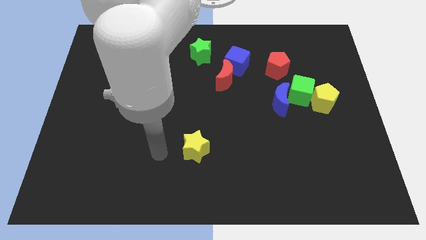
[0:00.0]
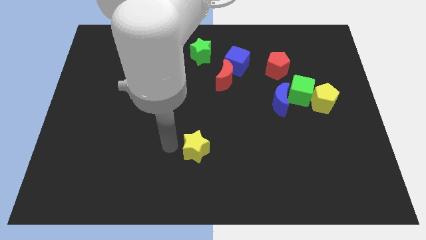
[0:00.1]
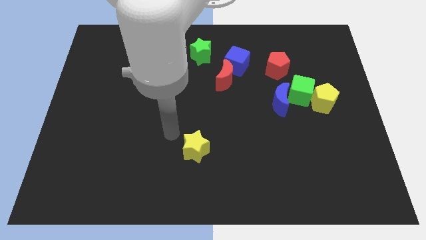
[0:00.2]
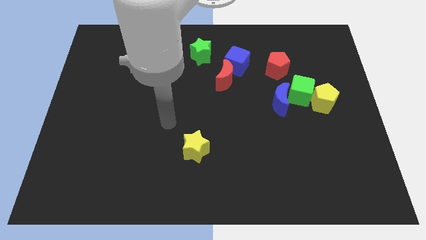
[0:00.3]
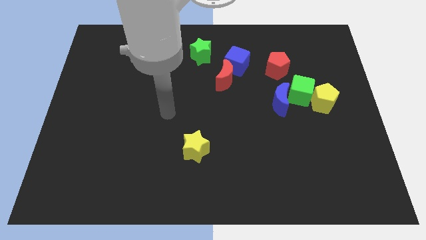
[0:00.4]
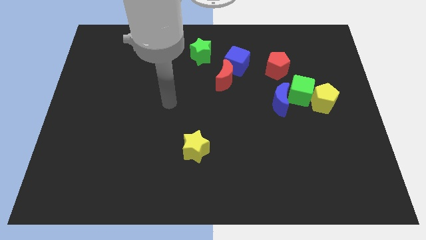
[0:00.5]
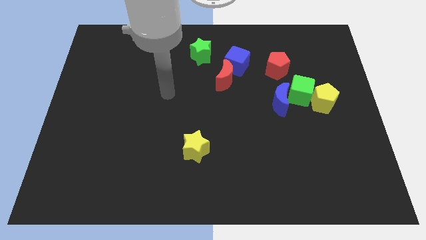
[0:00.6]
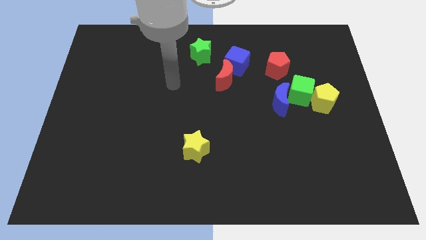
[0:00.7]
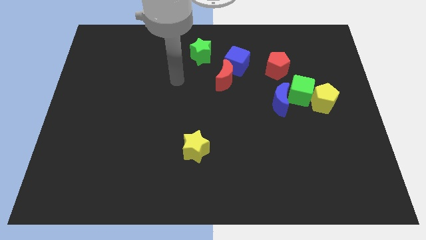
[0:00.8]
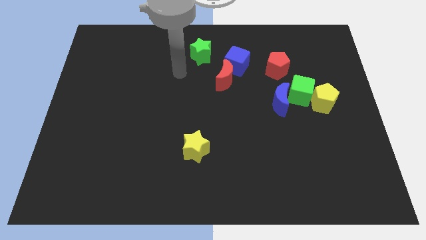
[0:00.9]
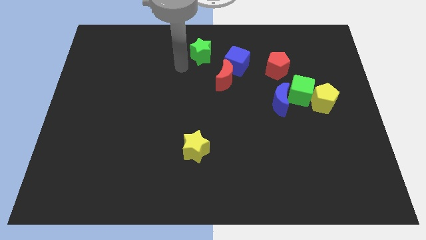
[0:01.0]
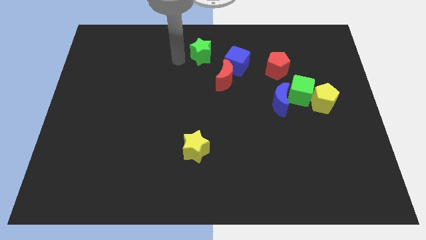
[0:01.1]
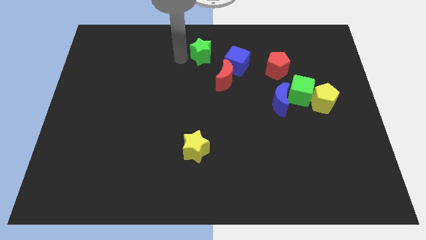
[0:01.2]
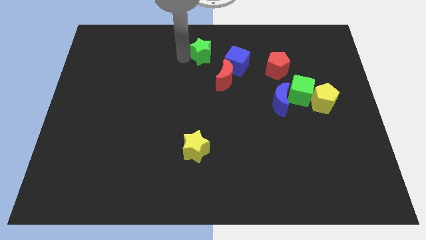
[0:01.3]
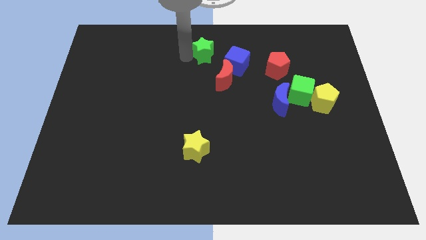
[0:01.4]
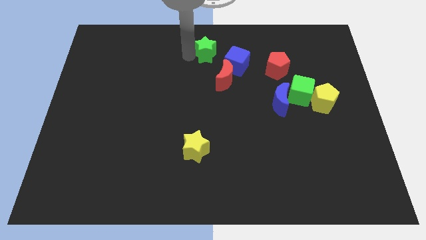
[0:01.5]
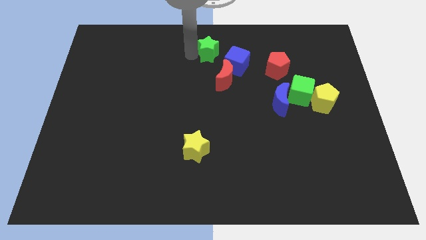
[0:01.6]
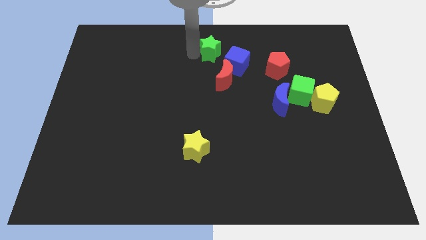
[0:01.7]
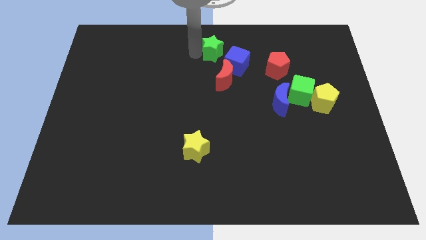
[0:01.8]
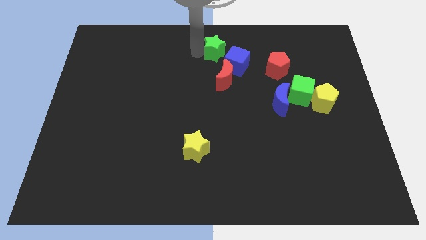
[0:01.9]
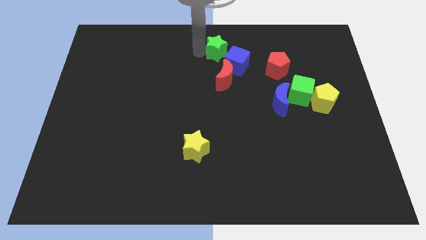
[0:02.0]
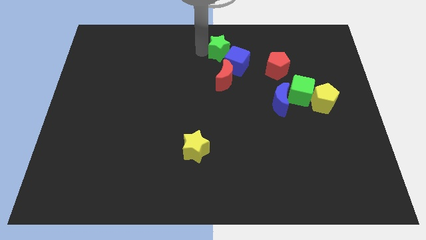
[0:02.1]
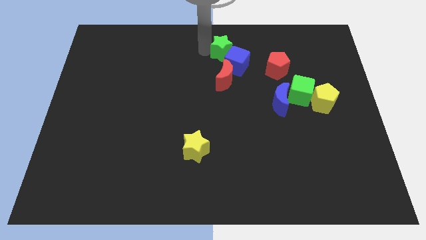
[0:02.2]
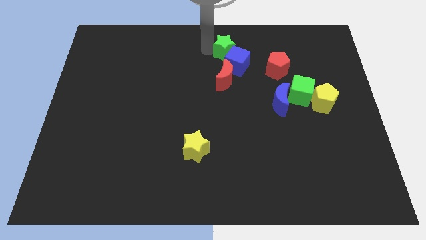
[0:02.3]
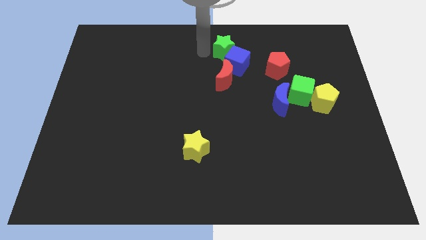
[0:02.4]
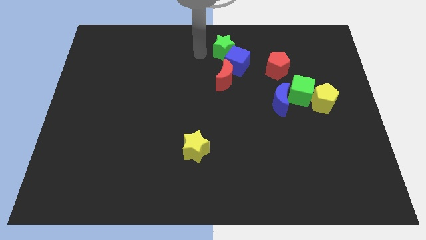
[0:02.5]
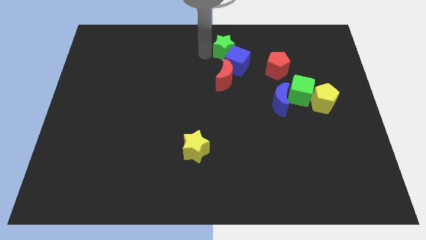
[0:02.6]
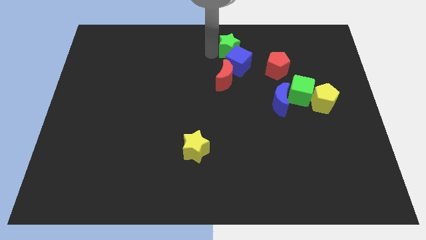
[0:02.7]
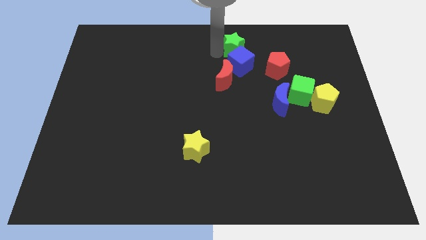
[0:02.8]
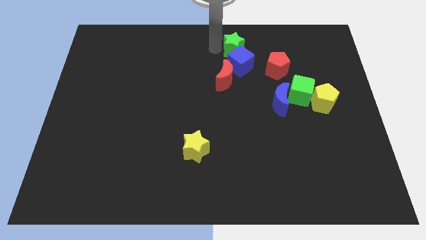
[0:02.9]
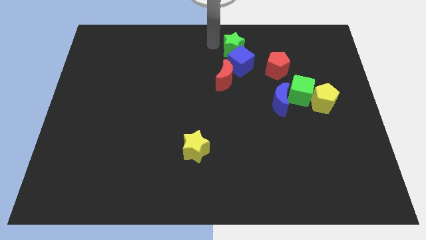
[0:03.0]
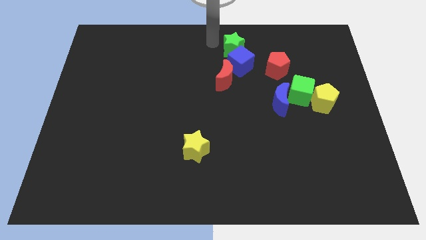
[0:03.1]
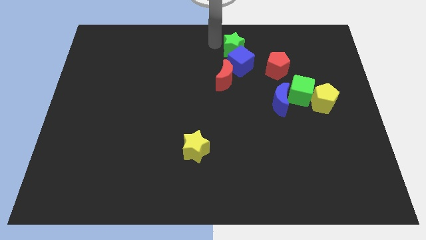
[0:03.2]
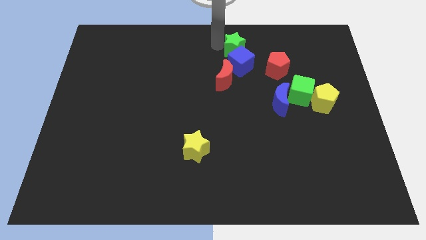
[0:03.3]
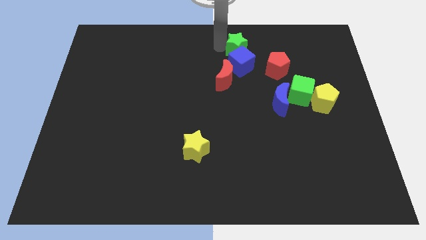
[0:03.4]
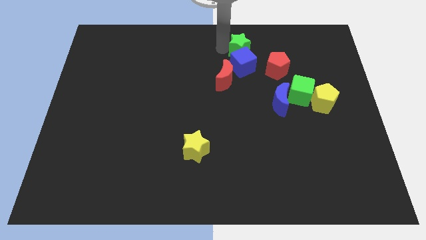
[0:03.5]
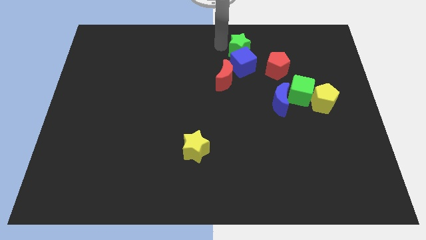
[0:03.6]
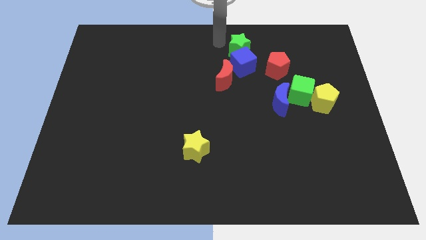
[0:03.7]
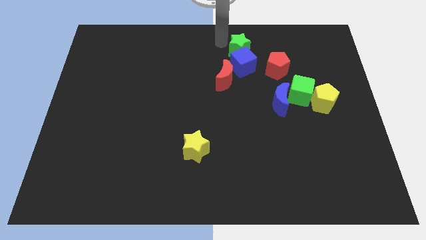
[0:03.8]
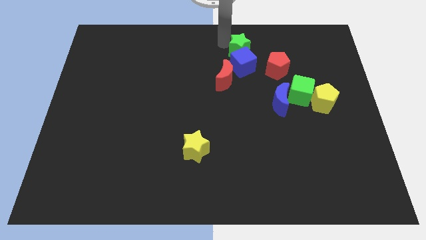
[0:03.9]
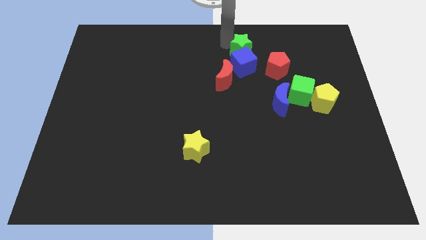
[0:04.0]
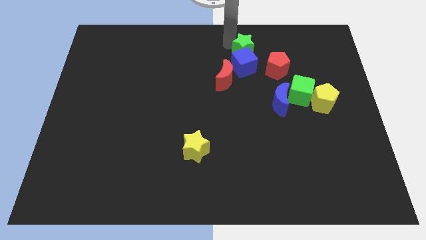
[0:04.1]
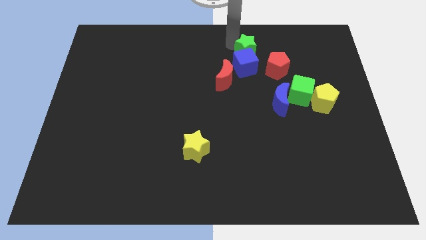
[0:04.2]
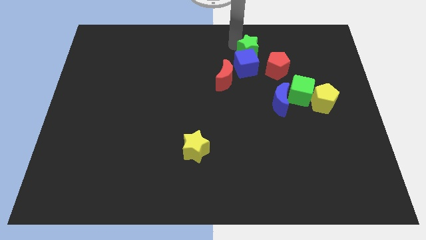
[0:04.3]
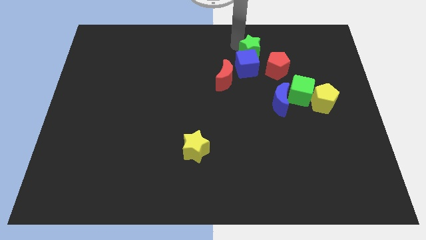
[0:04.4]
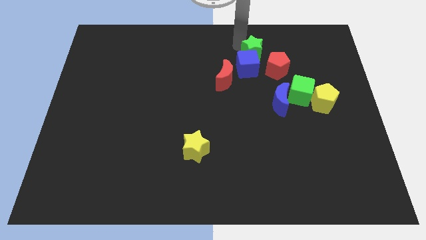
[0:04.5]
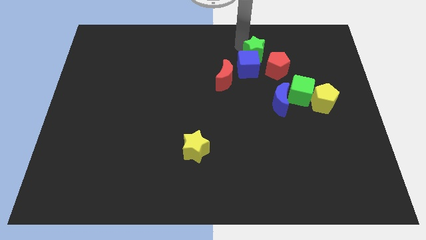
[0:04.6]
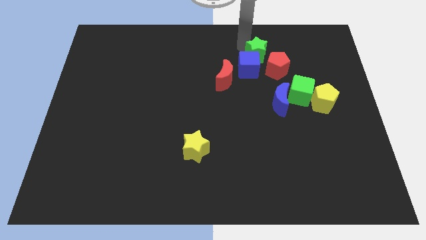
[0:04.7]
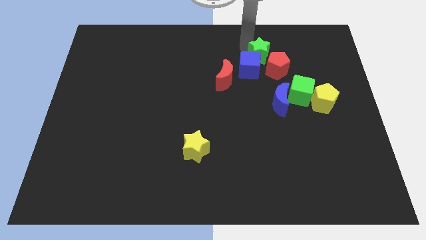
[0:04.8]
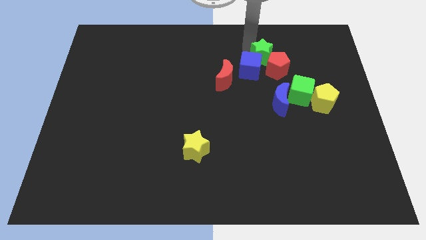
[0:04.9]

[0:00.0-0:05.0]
push the green star next to the red pentagon

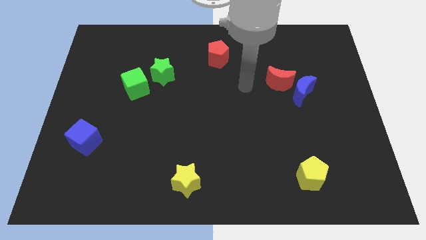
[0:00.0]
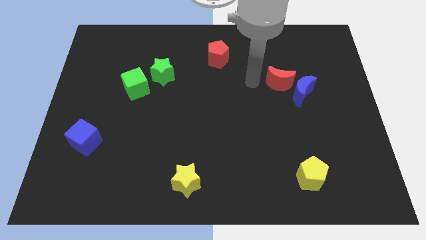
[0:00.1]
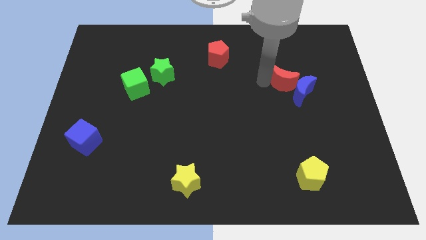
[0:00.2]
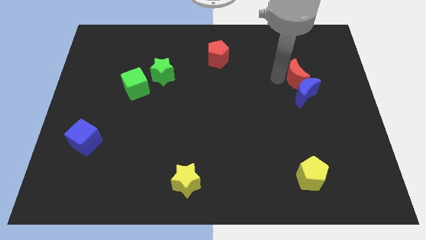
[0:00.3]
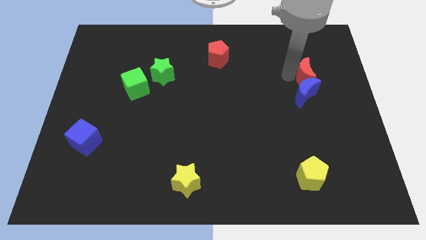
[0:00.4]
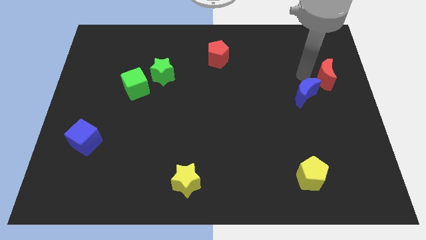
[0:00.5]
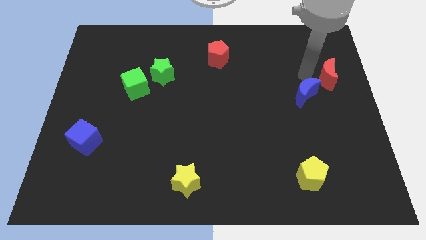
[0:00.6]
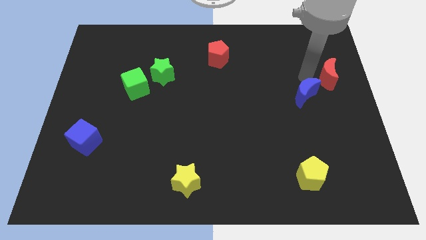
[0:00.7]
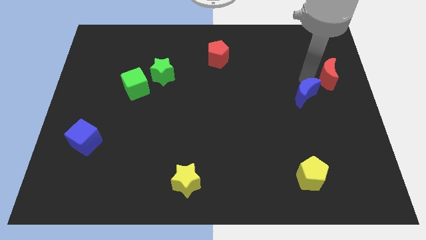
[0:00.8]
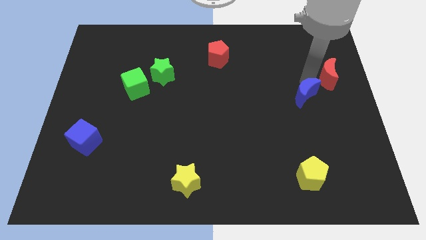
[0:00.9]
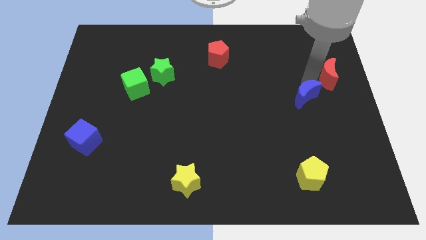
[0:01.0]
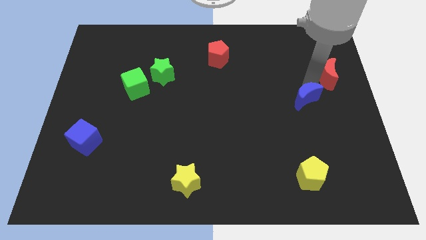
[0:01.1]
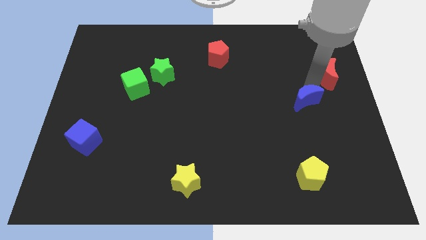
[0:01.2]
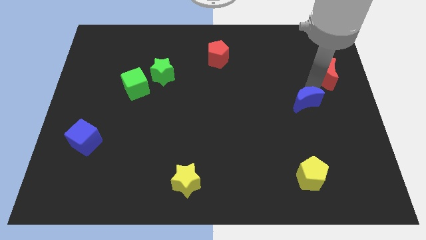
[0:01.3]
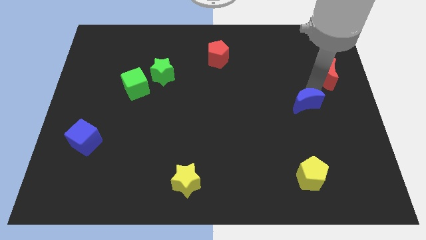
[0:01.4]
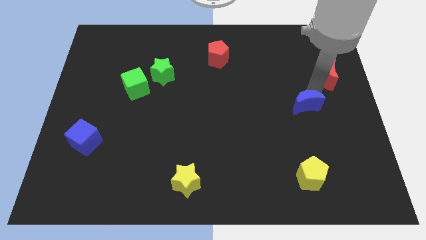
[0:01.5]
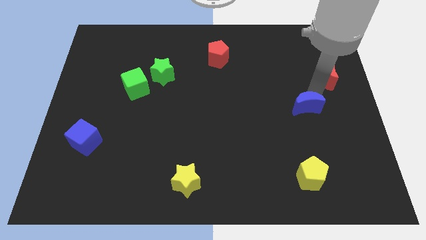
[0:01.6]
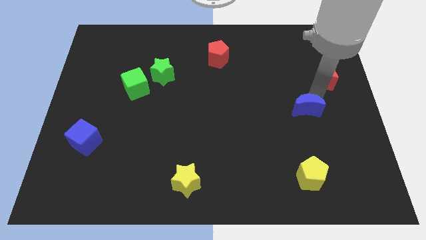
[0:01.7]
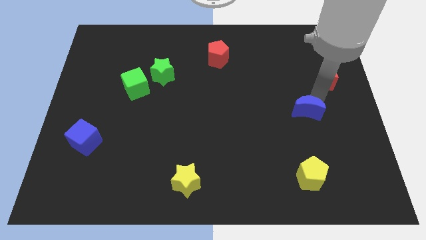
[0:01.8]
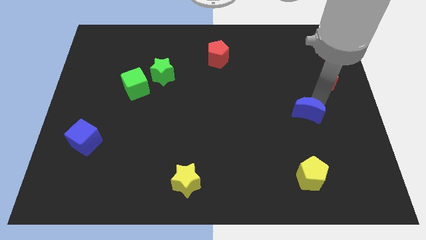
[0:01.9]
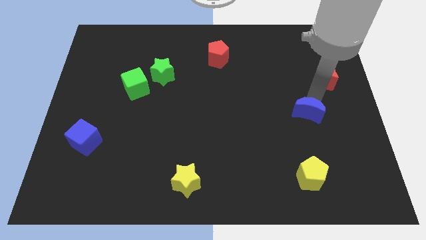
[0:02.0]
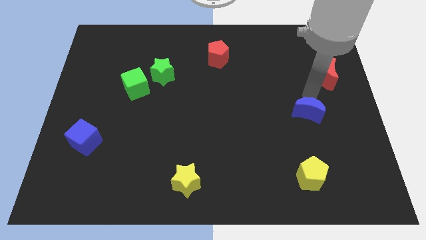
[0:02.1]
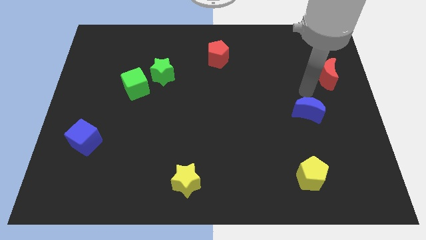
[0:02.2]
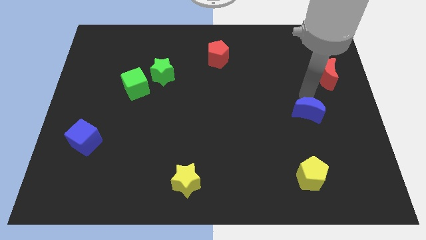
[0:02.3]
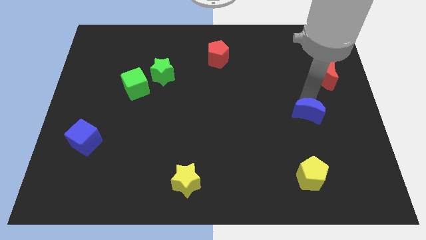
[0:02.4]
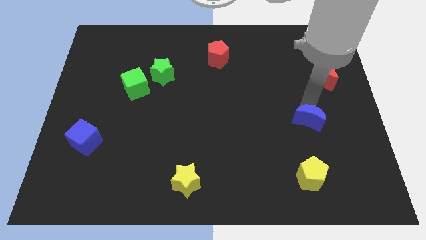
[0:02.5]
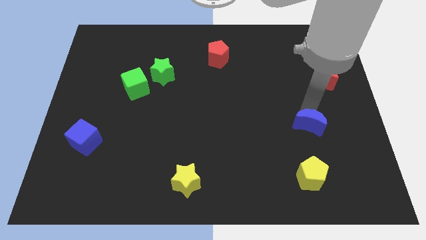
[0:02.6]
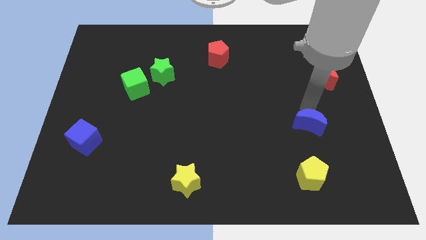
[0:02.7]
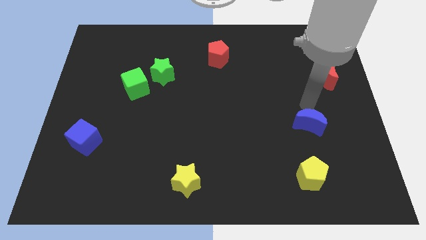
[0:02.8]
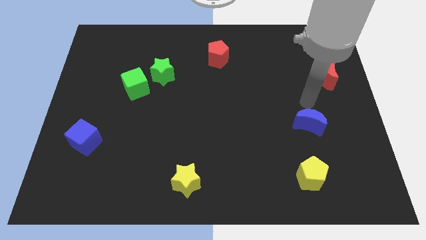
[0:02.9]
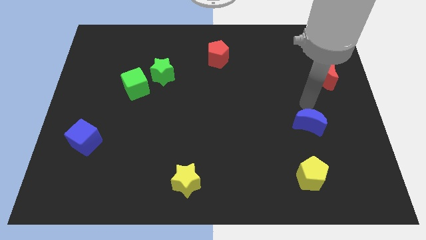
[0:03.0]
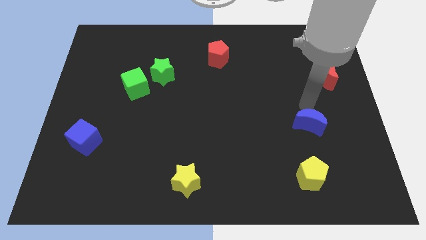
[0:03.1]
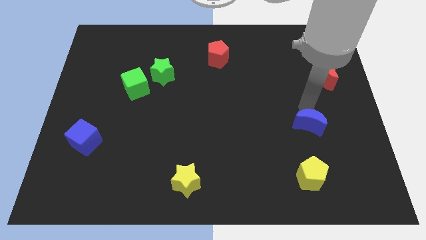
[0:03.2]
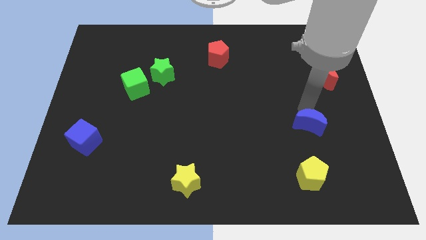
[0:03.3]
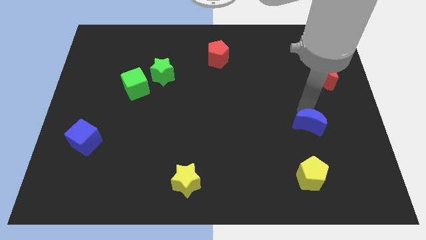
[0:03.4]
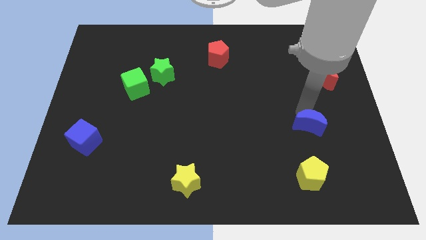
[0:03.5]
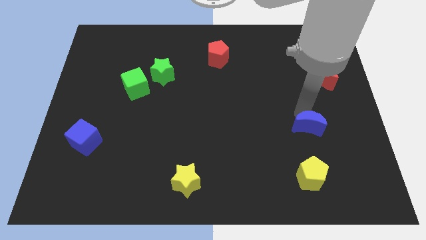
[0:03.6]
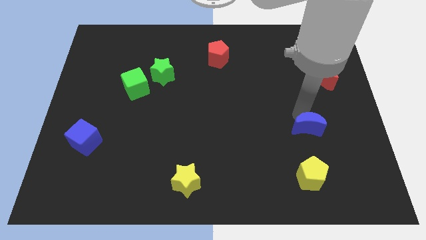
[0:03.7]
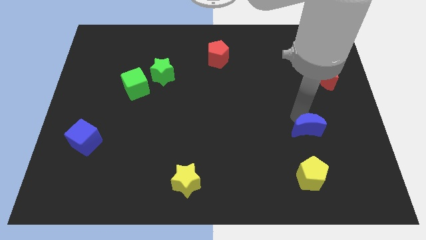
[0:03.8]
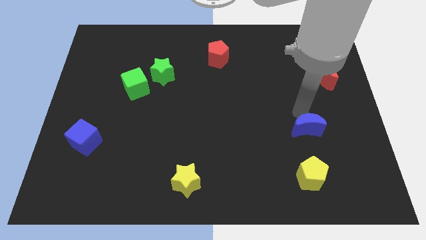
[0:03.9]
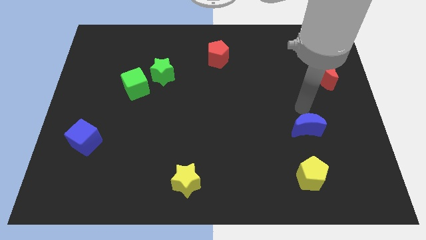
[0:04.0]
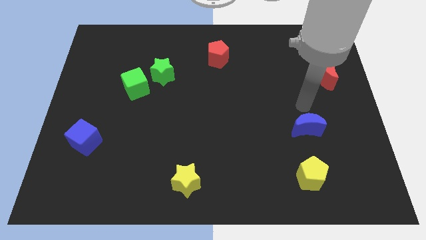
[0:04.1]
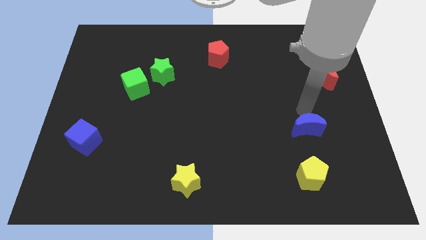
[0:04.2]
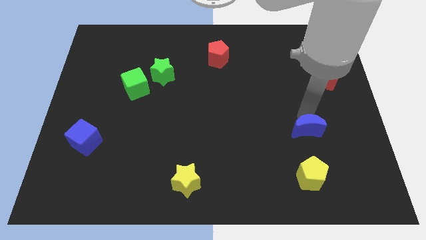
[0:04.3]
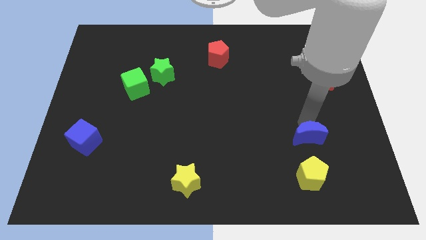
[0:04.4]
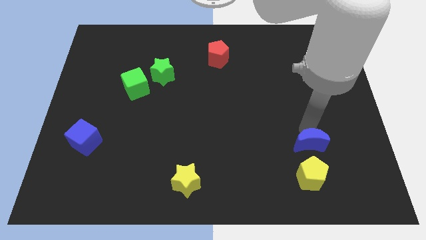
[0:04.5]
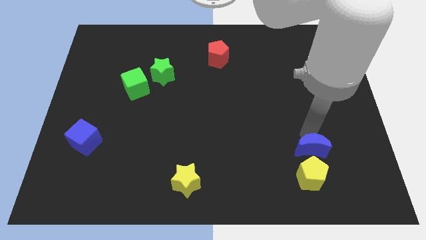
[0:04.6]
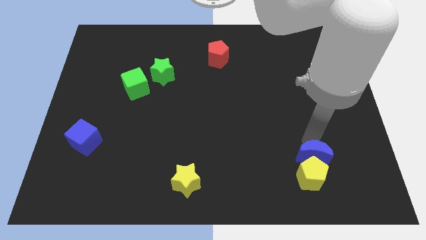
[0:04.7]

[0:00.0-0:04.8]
push the blue moon towards the yellow pentagon
